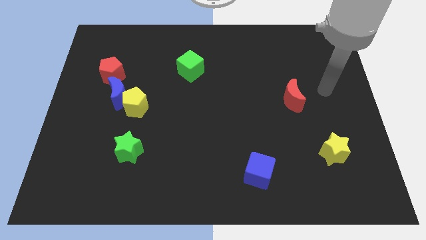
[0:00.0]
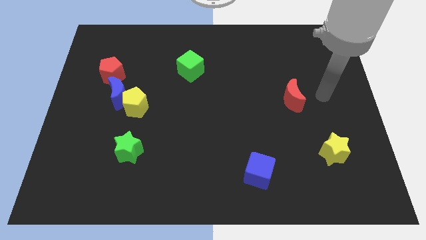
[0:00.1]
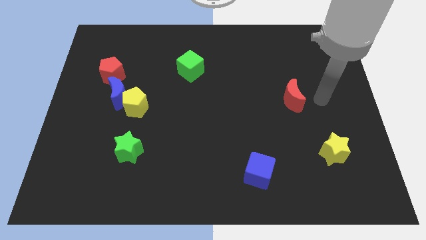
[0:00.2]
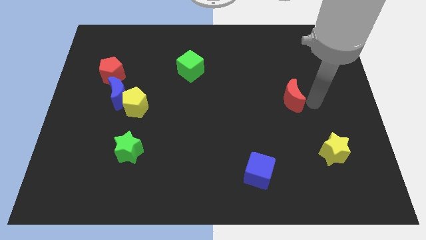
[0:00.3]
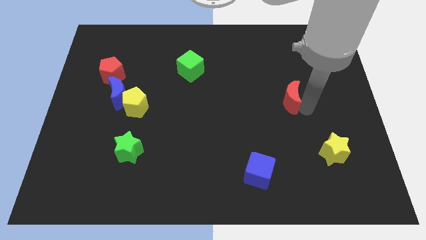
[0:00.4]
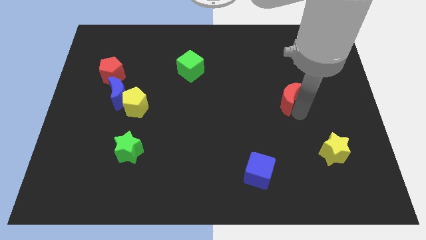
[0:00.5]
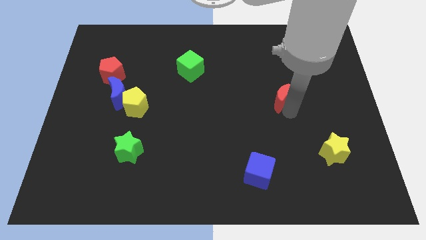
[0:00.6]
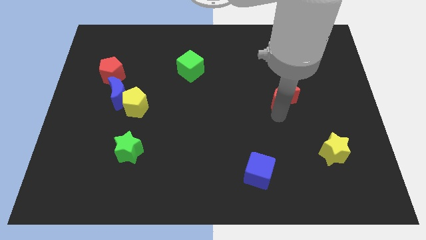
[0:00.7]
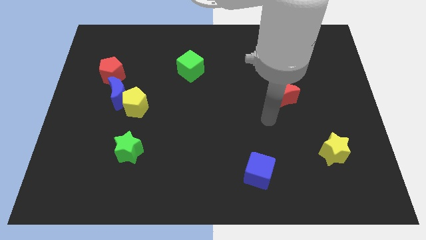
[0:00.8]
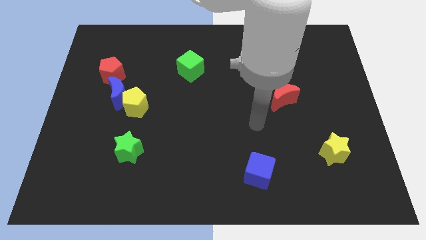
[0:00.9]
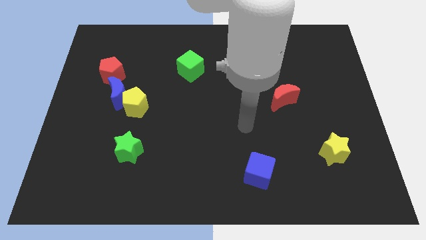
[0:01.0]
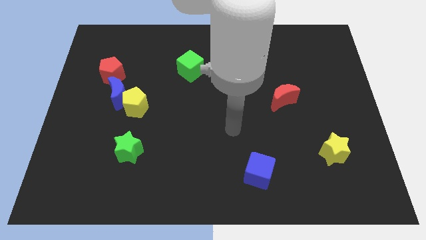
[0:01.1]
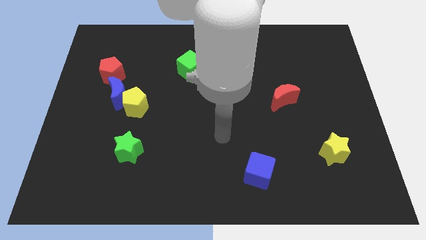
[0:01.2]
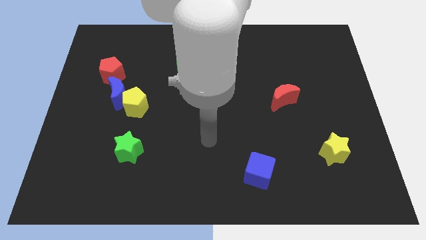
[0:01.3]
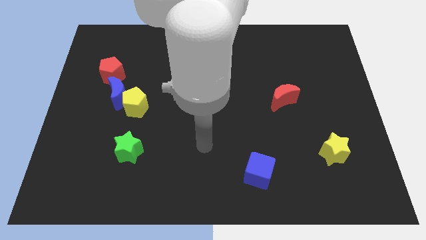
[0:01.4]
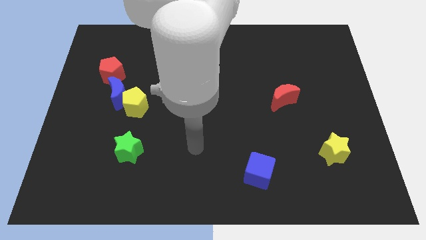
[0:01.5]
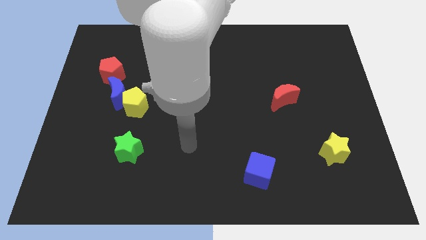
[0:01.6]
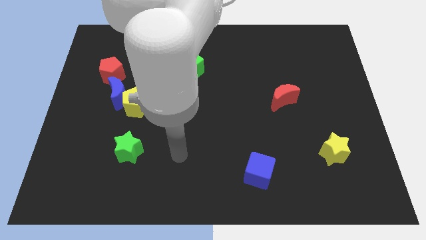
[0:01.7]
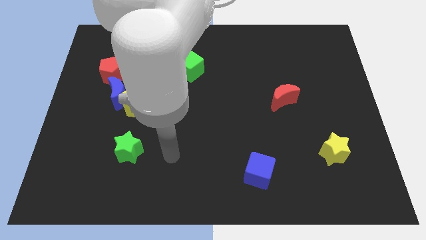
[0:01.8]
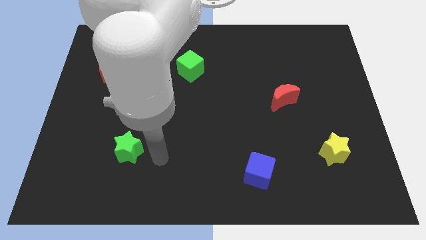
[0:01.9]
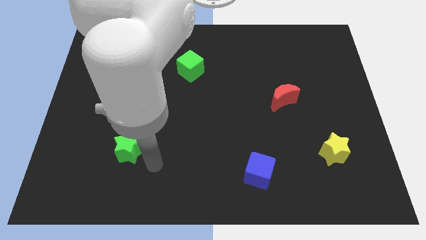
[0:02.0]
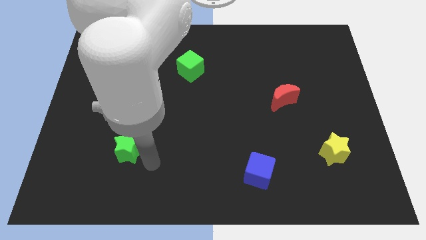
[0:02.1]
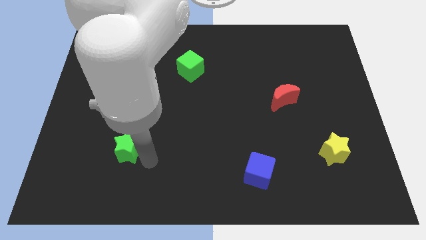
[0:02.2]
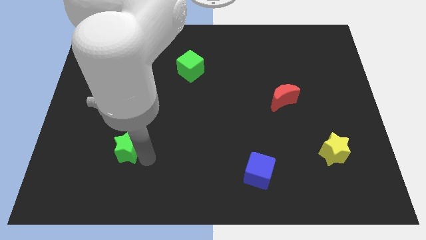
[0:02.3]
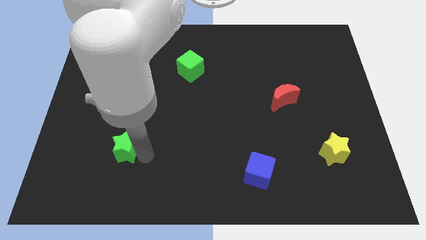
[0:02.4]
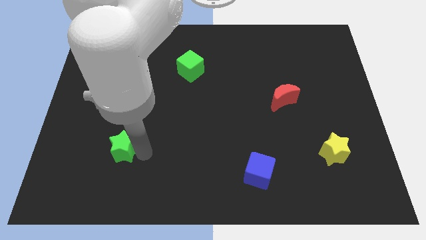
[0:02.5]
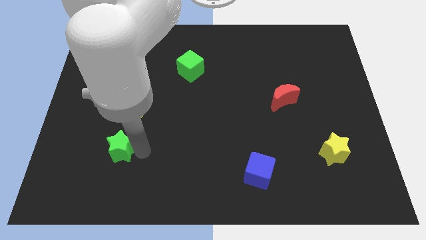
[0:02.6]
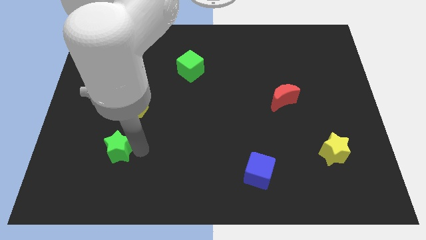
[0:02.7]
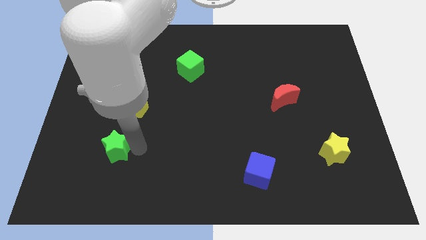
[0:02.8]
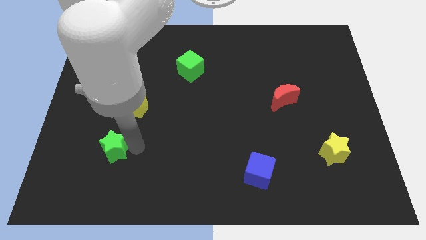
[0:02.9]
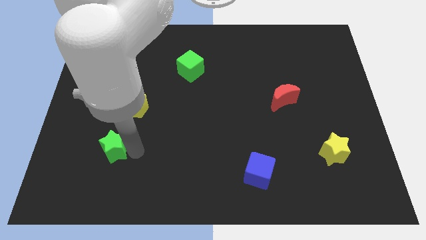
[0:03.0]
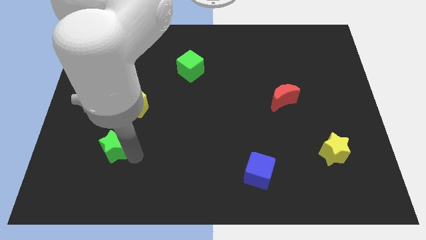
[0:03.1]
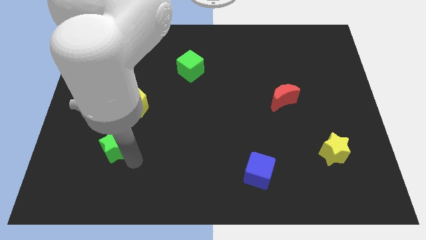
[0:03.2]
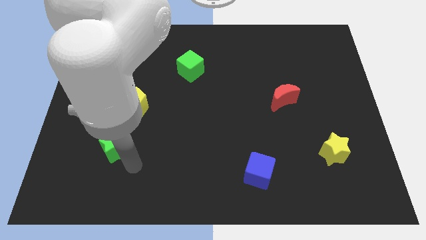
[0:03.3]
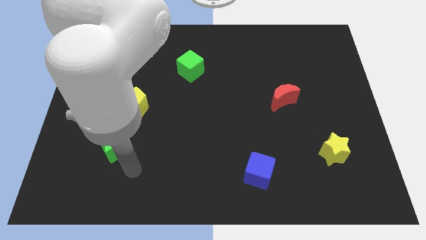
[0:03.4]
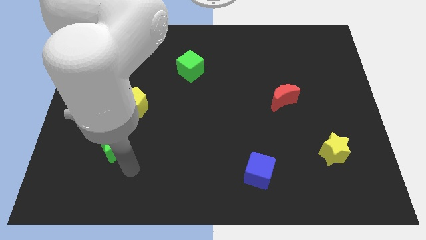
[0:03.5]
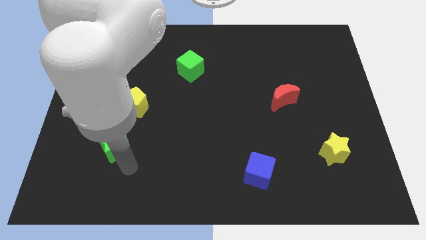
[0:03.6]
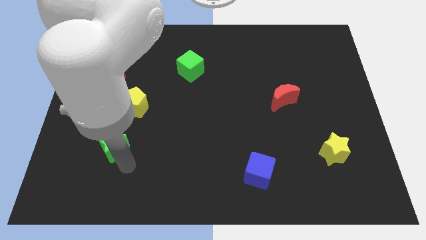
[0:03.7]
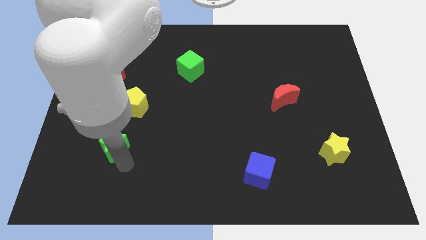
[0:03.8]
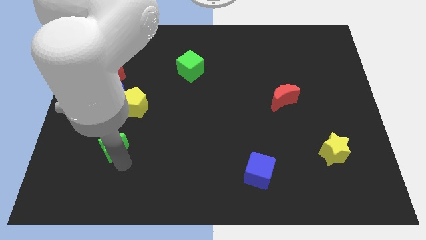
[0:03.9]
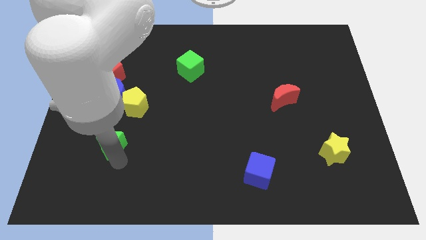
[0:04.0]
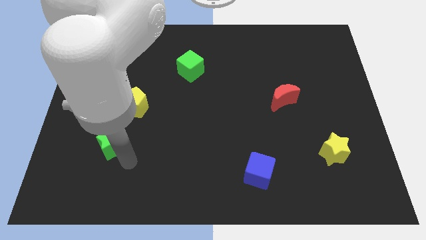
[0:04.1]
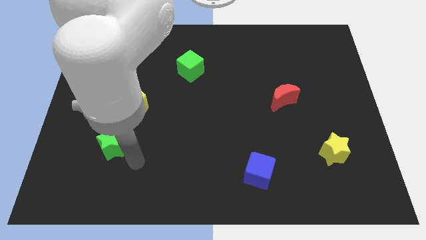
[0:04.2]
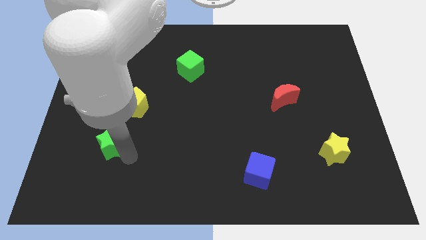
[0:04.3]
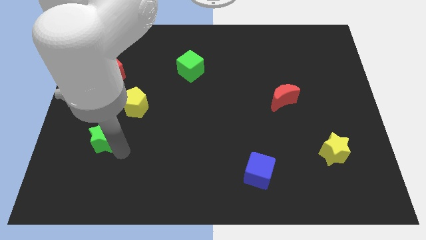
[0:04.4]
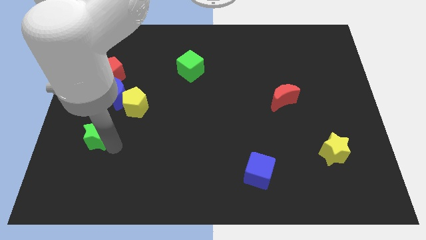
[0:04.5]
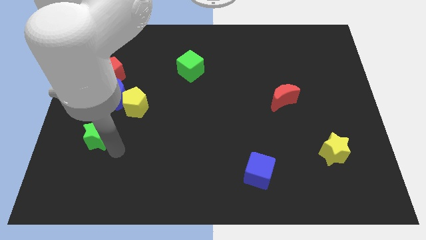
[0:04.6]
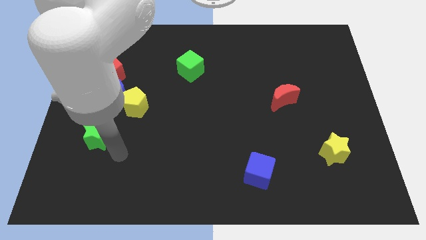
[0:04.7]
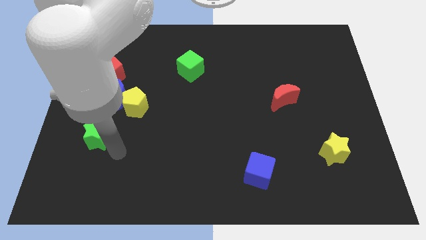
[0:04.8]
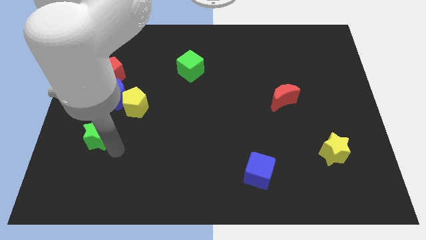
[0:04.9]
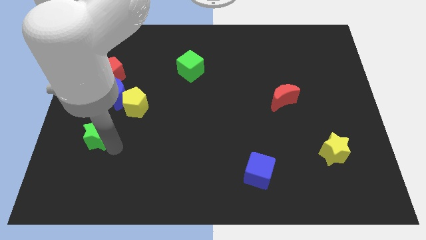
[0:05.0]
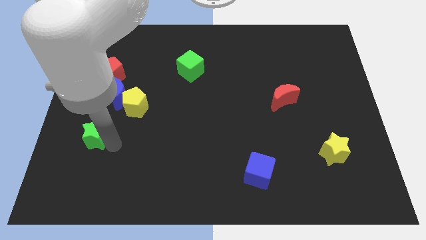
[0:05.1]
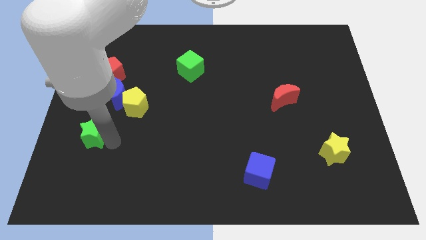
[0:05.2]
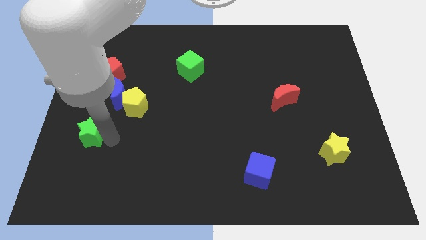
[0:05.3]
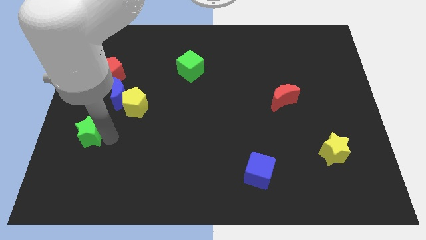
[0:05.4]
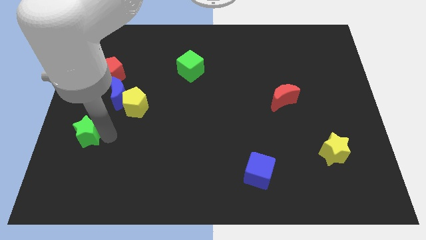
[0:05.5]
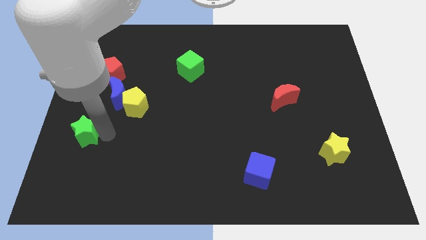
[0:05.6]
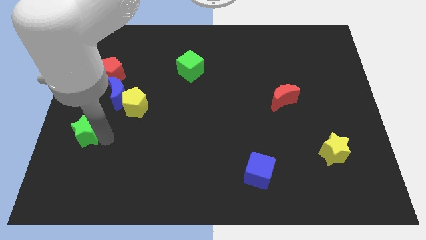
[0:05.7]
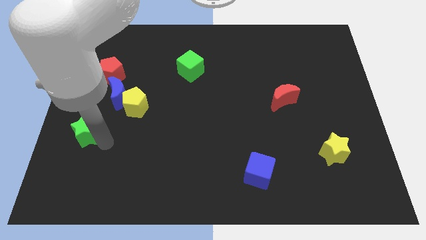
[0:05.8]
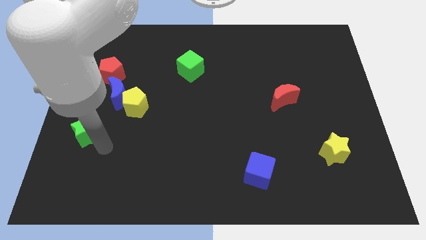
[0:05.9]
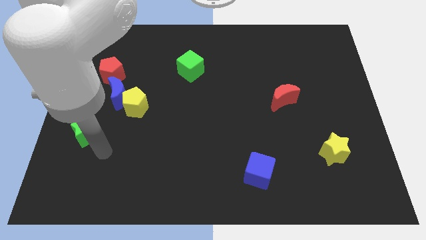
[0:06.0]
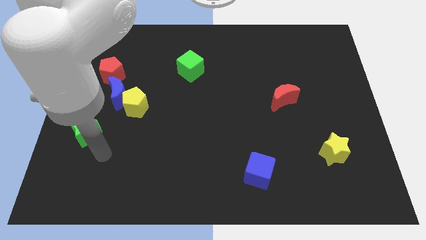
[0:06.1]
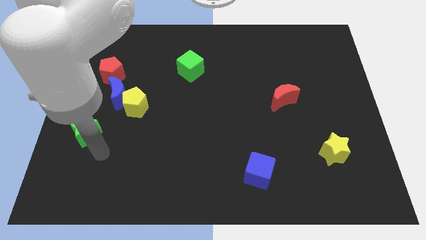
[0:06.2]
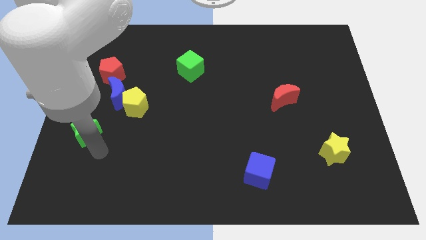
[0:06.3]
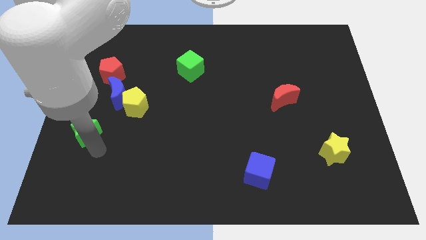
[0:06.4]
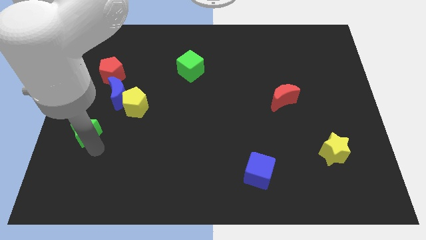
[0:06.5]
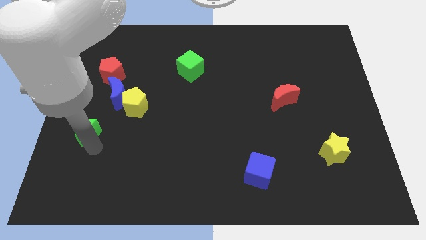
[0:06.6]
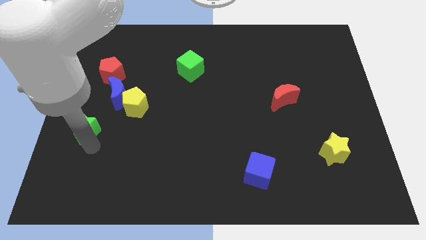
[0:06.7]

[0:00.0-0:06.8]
move the green star to the center left

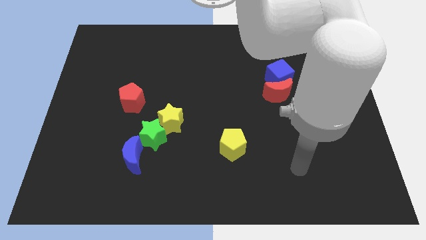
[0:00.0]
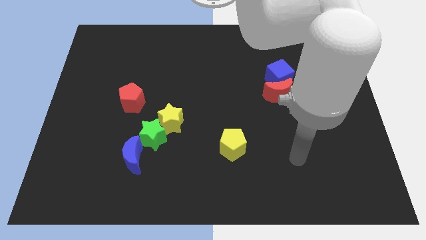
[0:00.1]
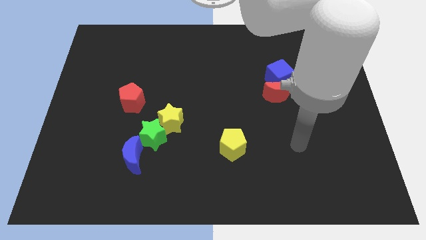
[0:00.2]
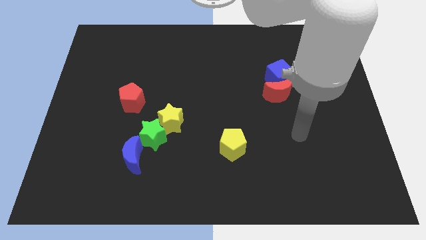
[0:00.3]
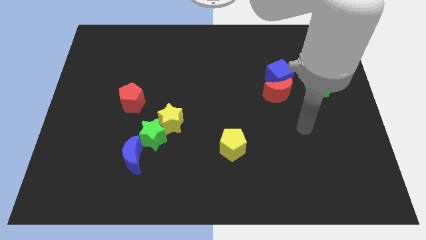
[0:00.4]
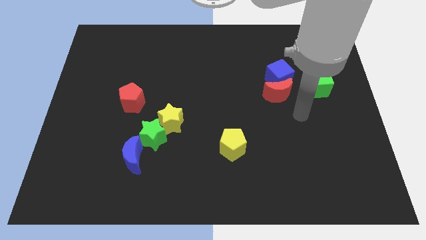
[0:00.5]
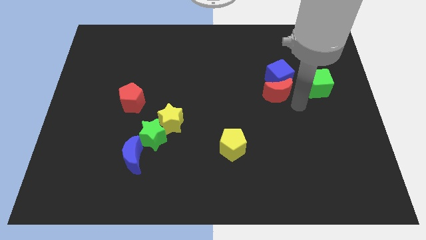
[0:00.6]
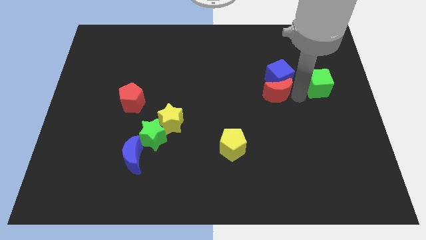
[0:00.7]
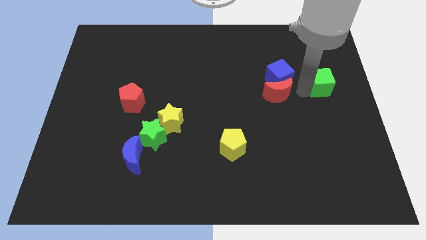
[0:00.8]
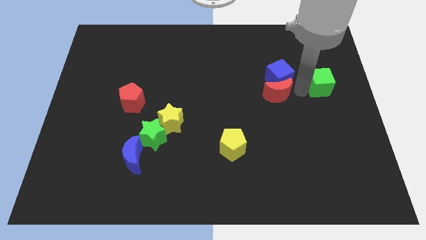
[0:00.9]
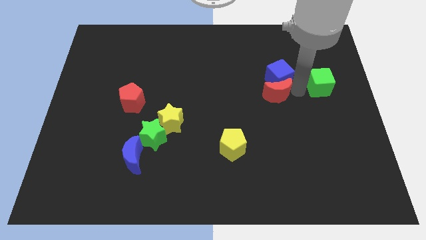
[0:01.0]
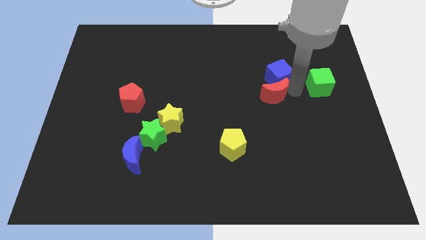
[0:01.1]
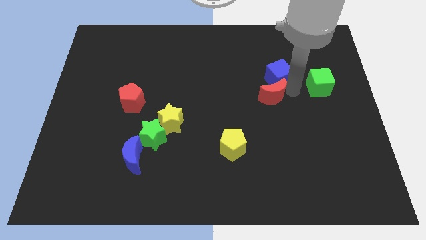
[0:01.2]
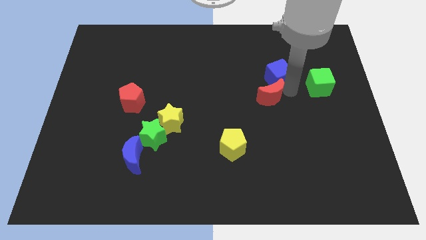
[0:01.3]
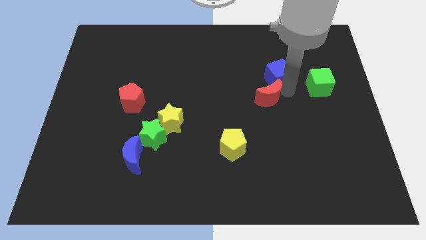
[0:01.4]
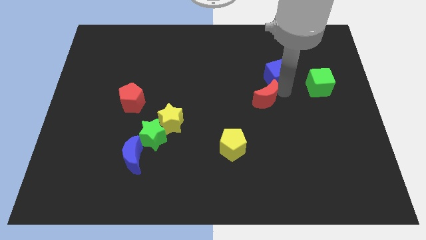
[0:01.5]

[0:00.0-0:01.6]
put the red moon to the middle of the board
